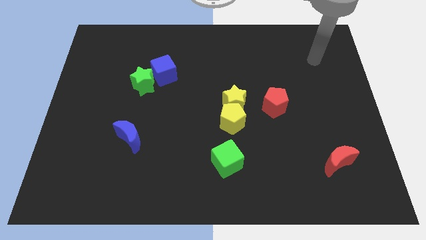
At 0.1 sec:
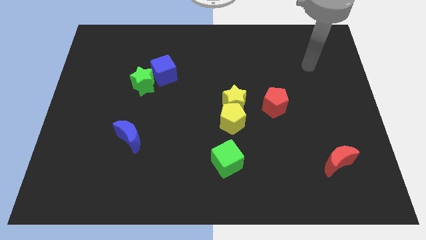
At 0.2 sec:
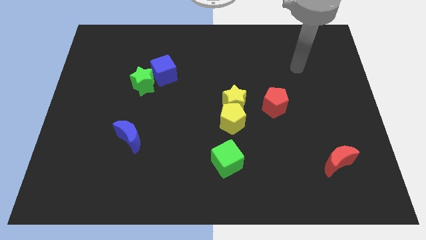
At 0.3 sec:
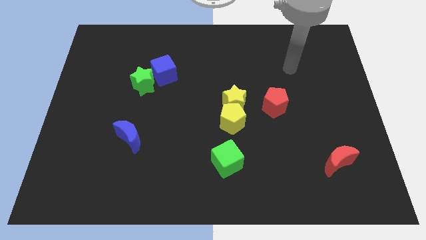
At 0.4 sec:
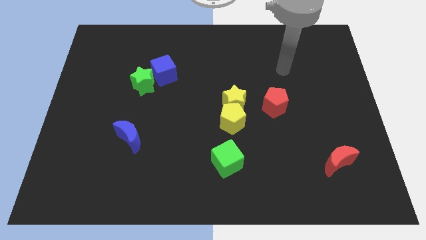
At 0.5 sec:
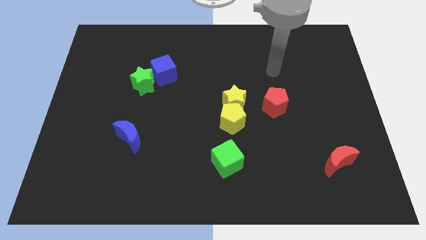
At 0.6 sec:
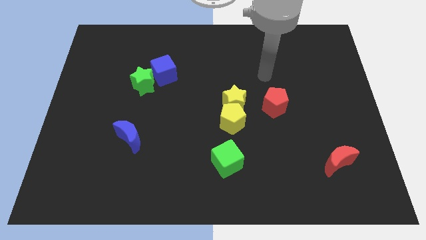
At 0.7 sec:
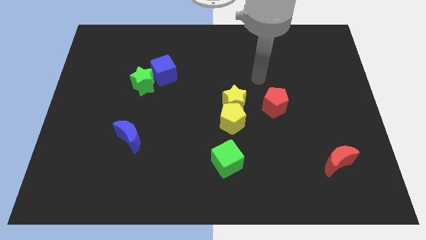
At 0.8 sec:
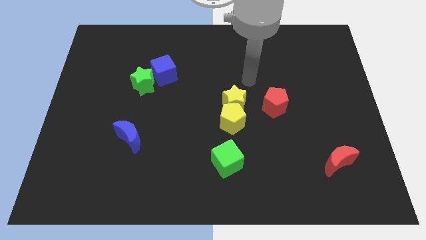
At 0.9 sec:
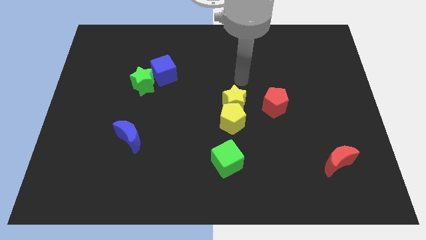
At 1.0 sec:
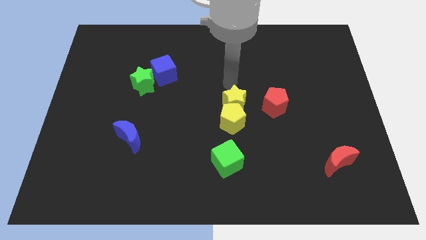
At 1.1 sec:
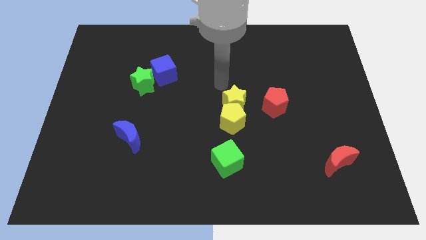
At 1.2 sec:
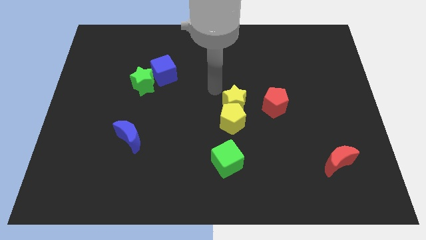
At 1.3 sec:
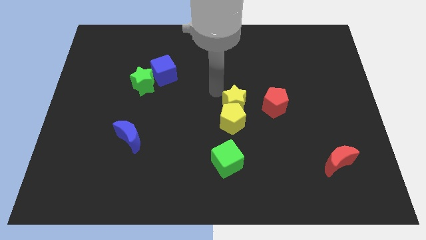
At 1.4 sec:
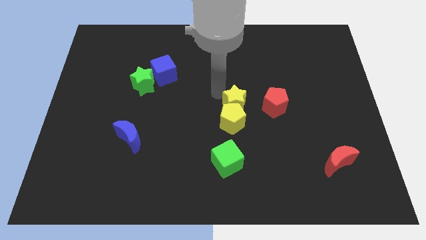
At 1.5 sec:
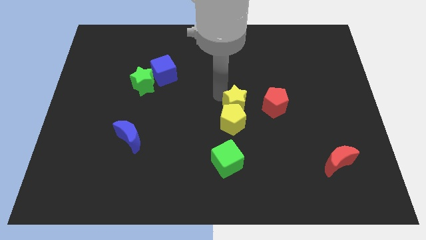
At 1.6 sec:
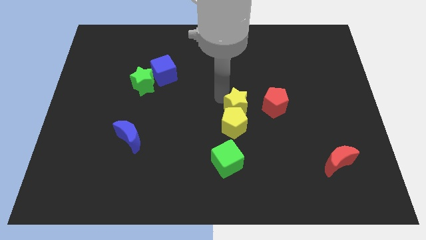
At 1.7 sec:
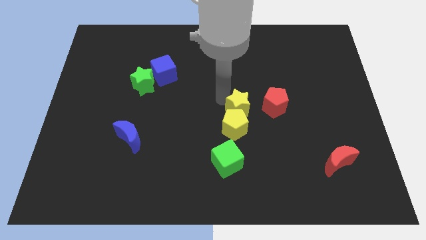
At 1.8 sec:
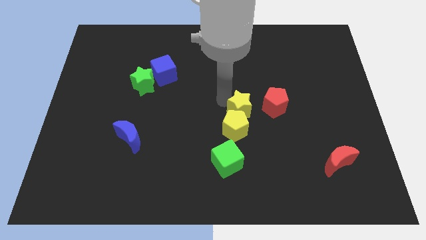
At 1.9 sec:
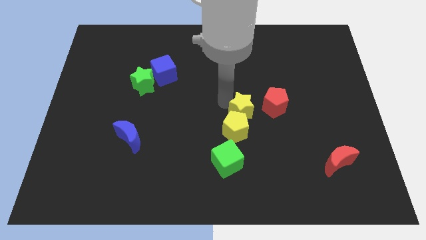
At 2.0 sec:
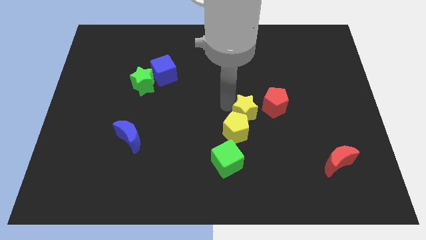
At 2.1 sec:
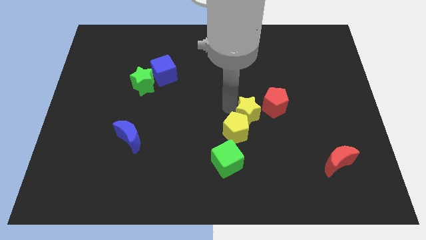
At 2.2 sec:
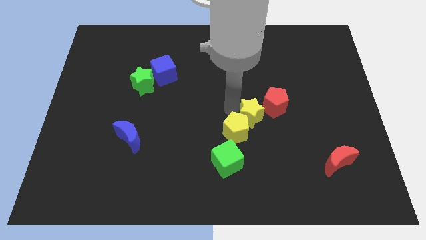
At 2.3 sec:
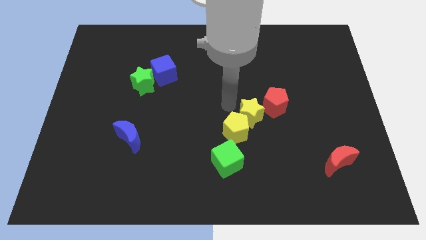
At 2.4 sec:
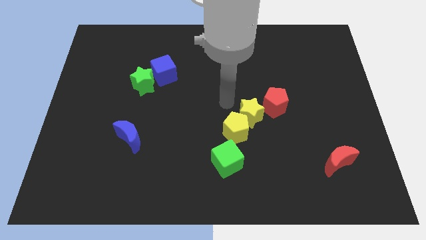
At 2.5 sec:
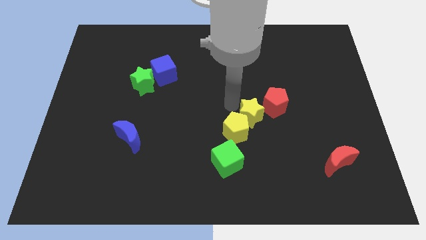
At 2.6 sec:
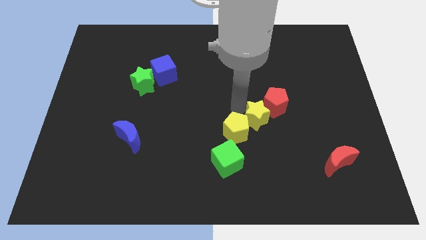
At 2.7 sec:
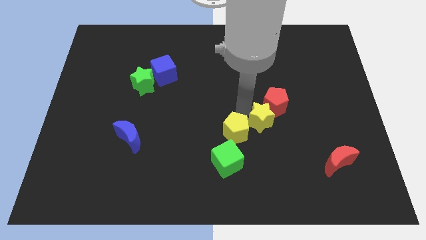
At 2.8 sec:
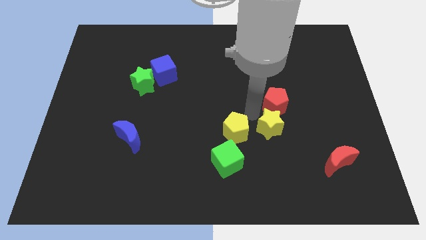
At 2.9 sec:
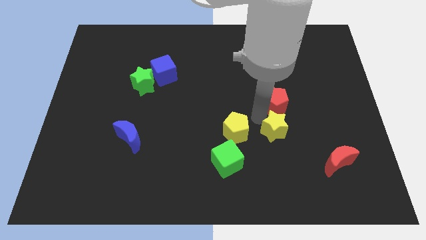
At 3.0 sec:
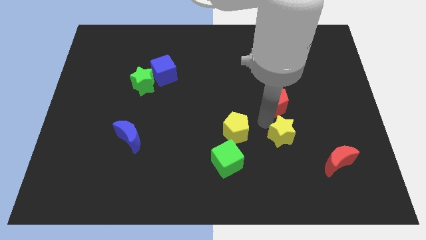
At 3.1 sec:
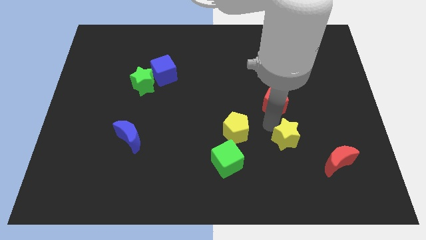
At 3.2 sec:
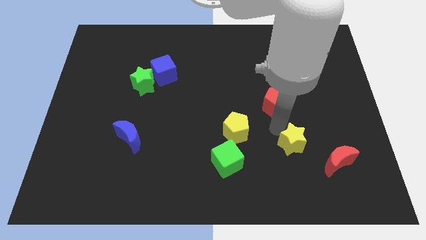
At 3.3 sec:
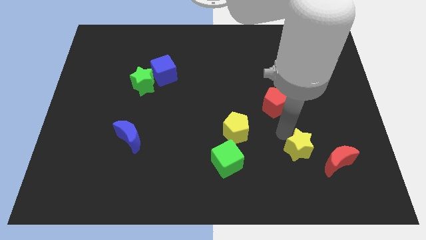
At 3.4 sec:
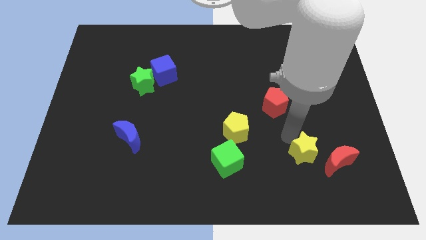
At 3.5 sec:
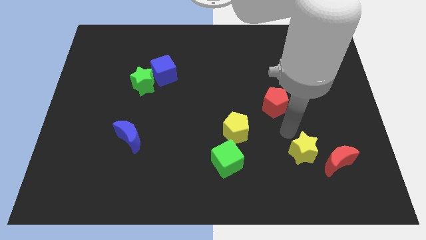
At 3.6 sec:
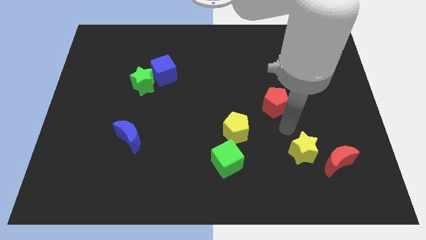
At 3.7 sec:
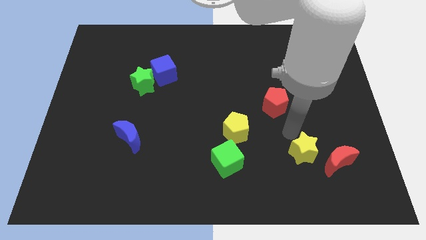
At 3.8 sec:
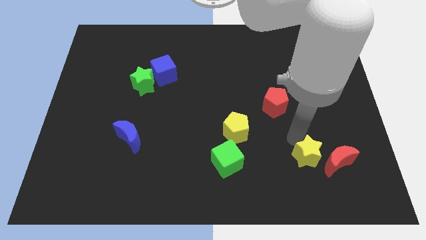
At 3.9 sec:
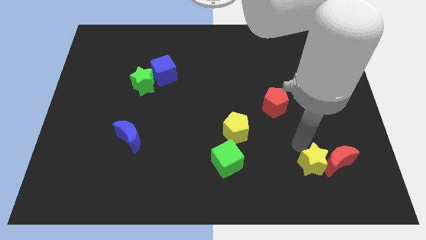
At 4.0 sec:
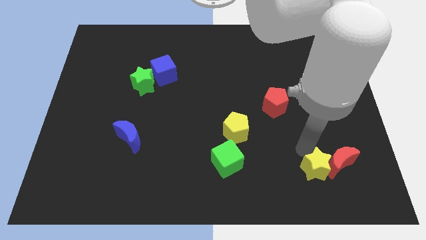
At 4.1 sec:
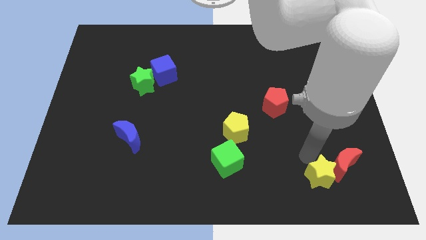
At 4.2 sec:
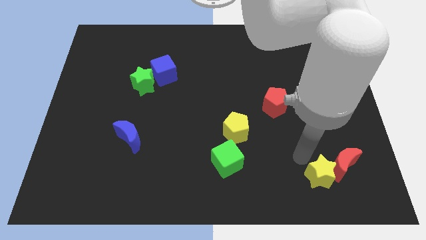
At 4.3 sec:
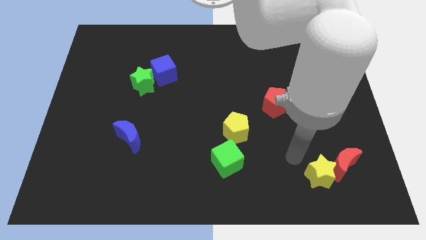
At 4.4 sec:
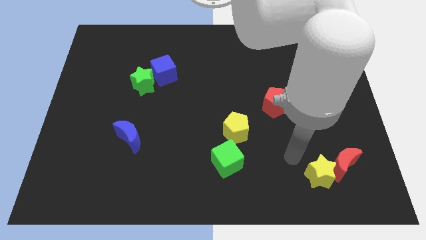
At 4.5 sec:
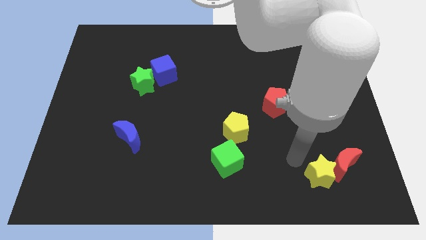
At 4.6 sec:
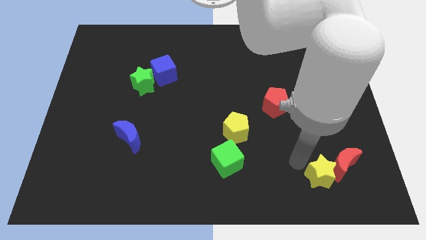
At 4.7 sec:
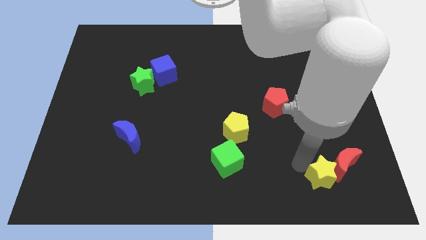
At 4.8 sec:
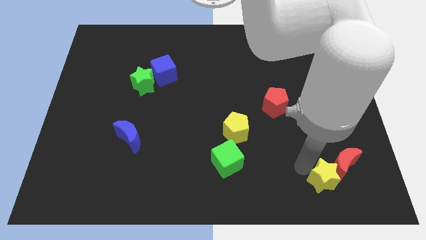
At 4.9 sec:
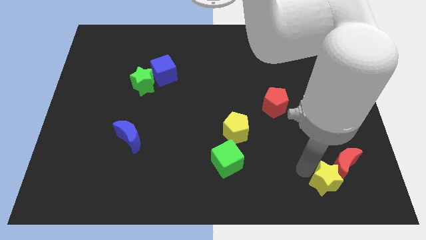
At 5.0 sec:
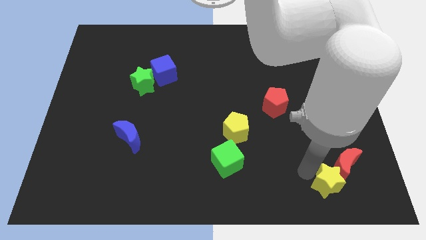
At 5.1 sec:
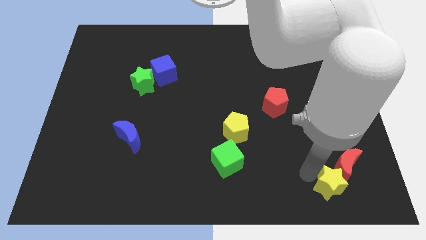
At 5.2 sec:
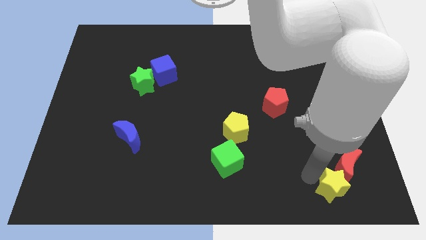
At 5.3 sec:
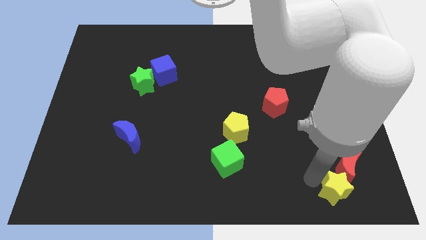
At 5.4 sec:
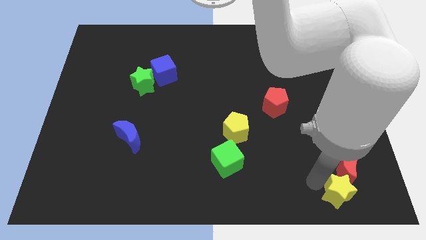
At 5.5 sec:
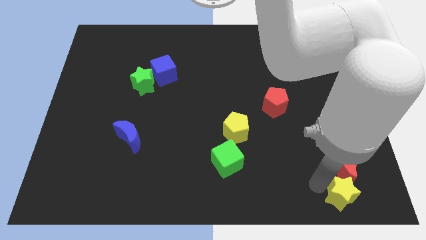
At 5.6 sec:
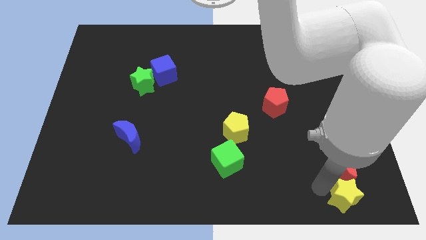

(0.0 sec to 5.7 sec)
put the yellow star to the bottom right

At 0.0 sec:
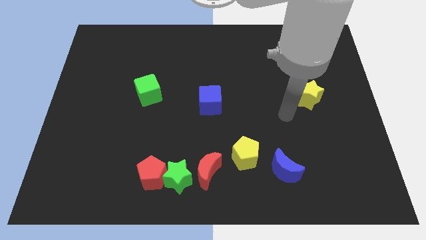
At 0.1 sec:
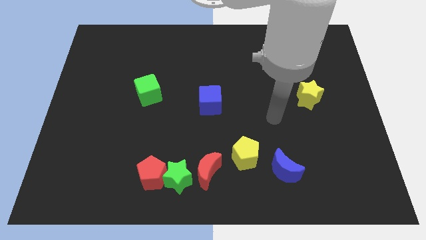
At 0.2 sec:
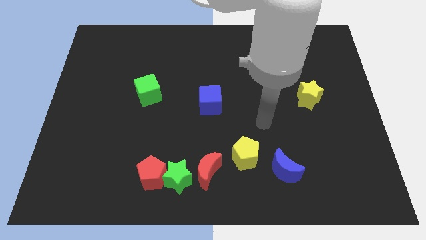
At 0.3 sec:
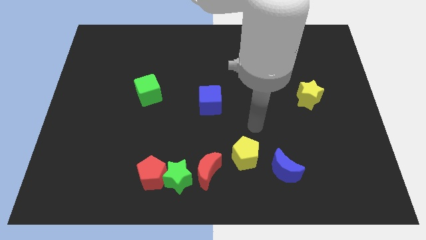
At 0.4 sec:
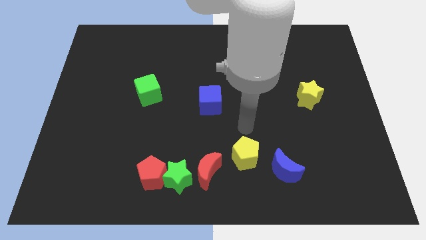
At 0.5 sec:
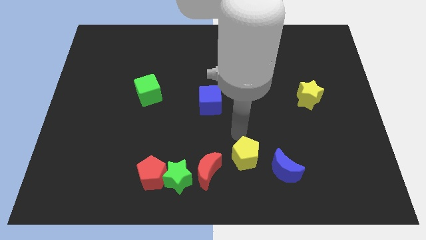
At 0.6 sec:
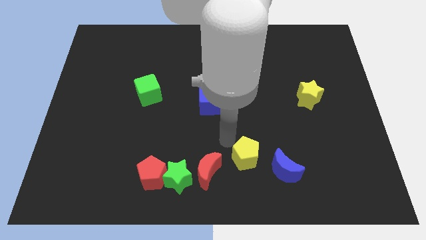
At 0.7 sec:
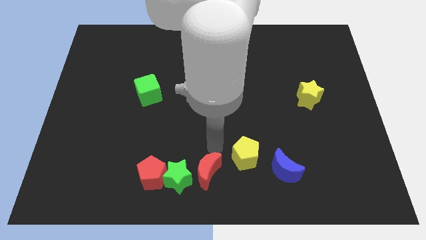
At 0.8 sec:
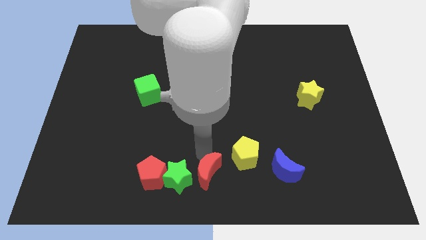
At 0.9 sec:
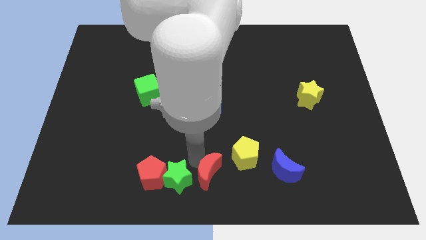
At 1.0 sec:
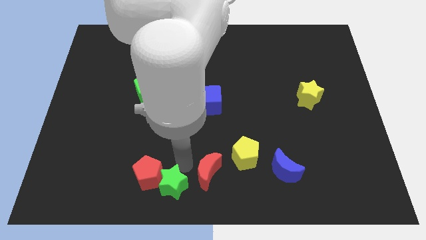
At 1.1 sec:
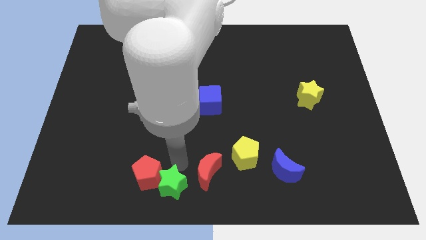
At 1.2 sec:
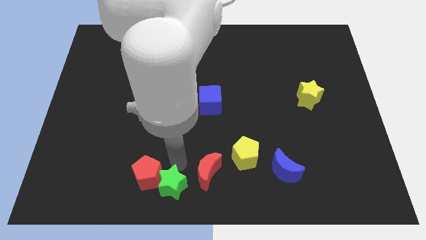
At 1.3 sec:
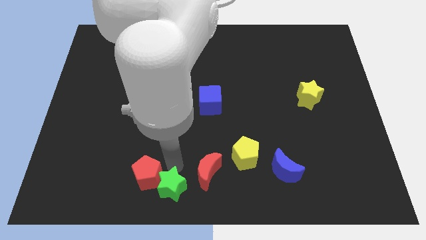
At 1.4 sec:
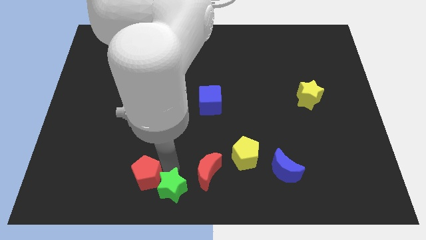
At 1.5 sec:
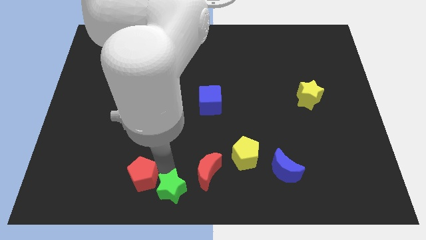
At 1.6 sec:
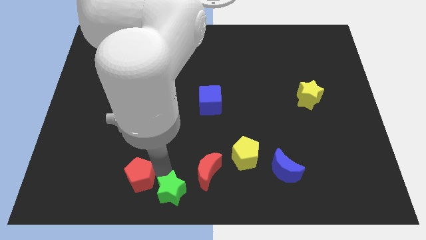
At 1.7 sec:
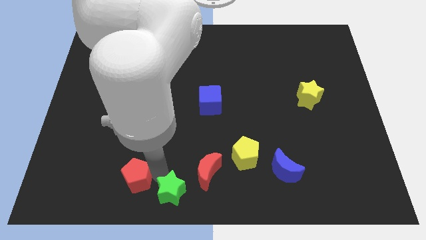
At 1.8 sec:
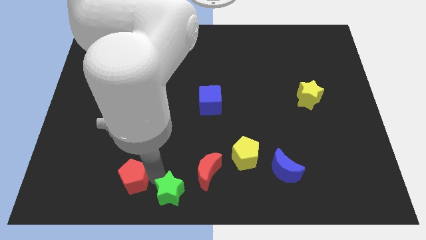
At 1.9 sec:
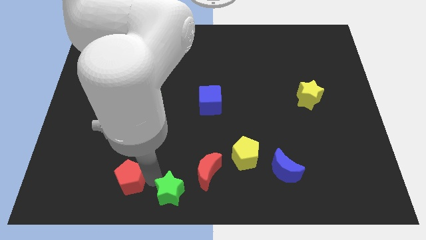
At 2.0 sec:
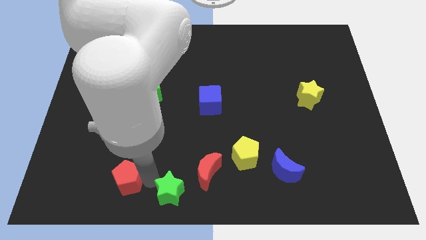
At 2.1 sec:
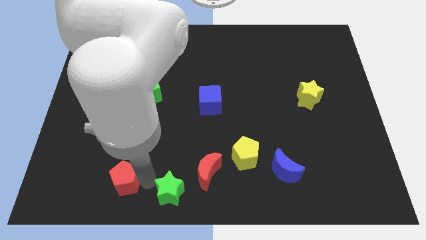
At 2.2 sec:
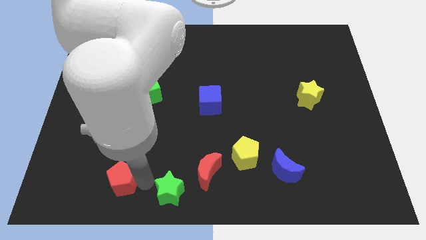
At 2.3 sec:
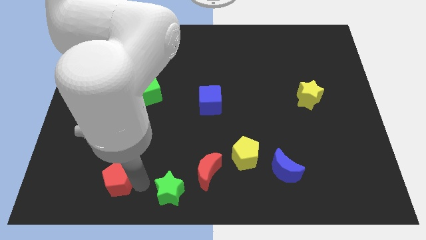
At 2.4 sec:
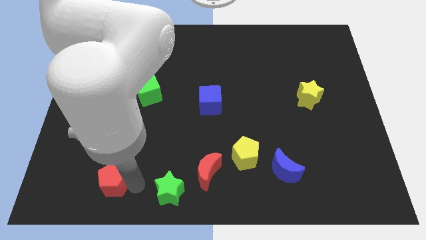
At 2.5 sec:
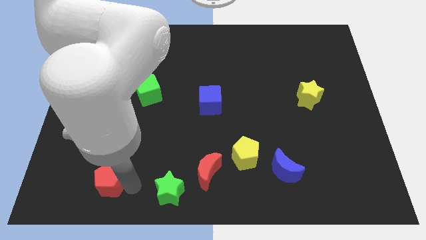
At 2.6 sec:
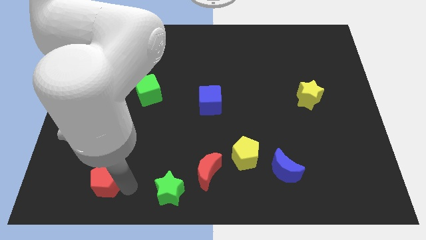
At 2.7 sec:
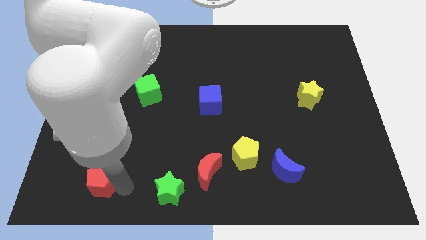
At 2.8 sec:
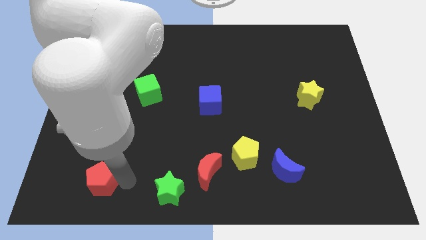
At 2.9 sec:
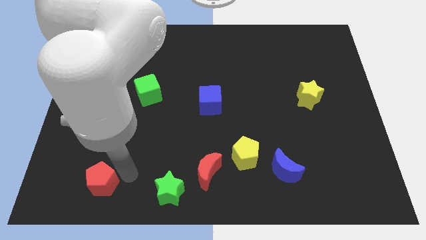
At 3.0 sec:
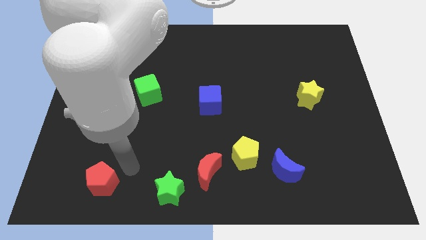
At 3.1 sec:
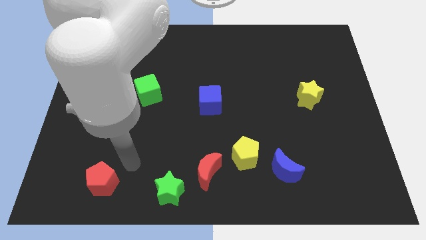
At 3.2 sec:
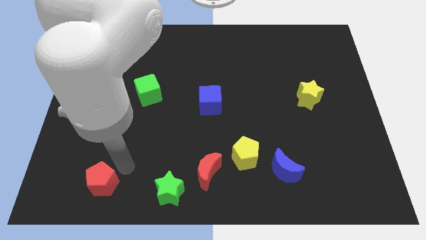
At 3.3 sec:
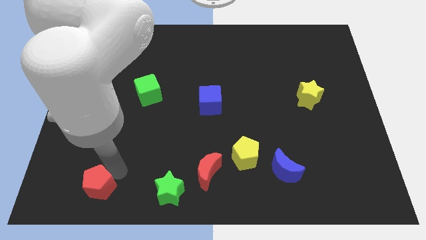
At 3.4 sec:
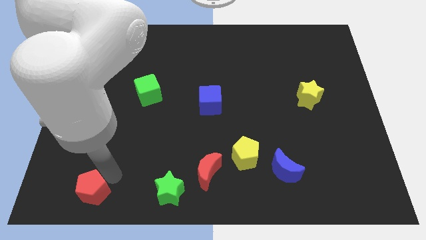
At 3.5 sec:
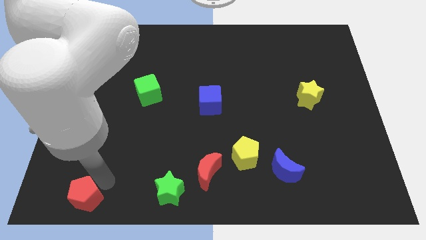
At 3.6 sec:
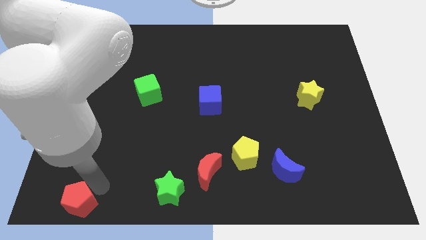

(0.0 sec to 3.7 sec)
push the red pentagon to the bottom left of the board
